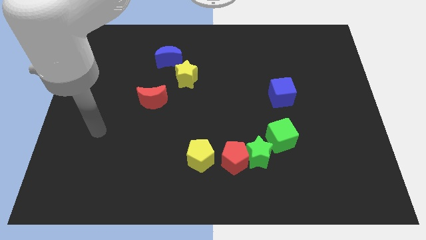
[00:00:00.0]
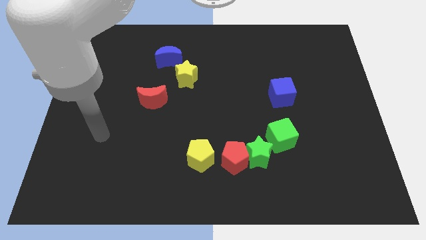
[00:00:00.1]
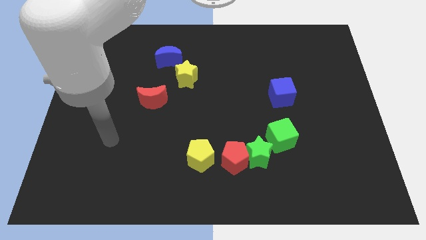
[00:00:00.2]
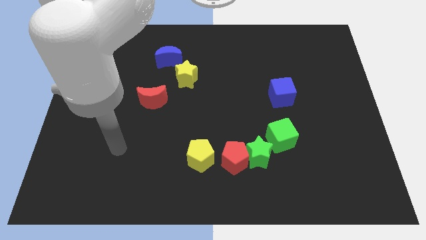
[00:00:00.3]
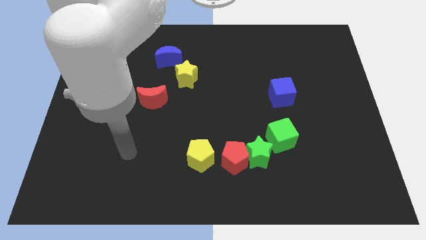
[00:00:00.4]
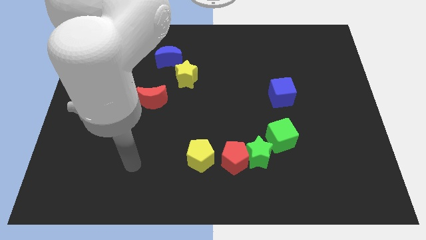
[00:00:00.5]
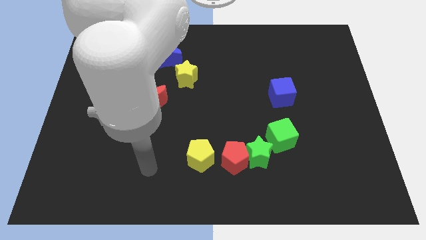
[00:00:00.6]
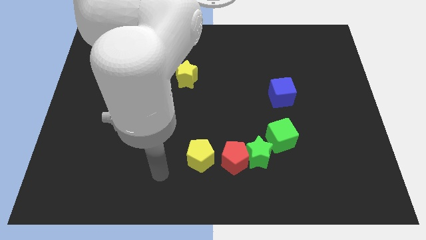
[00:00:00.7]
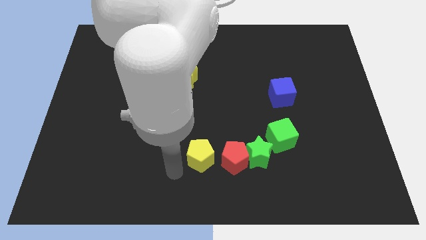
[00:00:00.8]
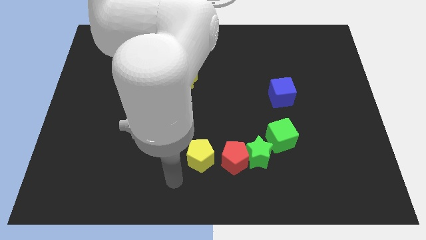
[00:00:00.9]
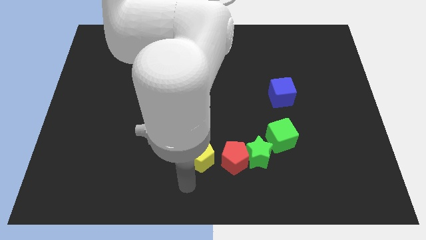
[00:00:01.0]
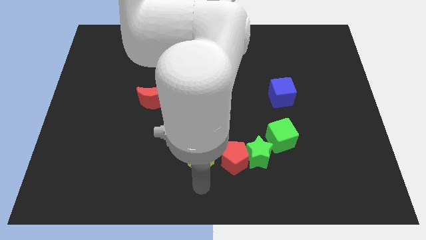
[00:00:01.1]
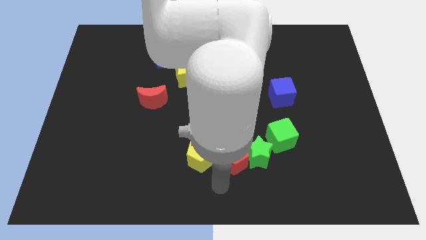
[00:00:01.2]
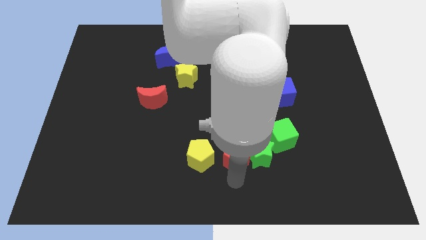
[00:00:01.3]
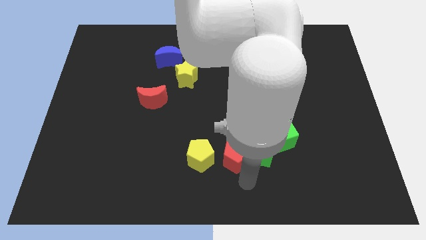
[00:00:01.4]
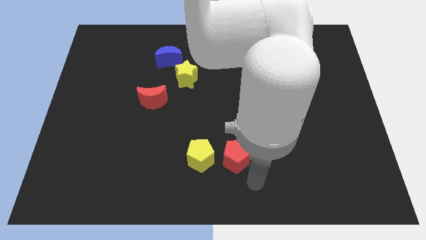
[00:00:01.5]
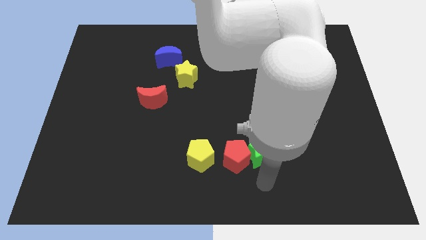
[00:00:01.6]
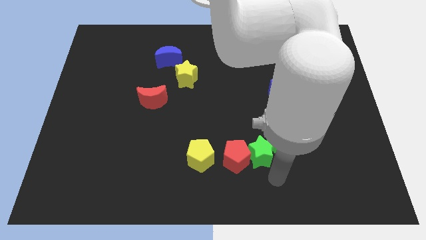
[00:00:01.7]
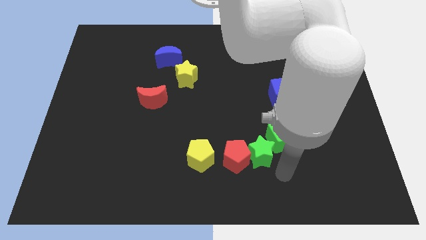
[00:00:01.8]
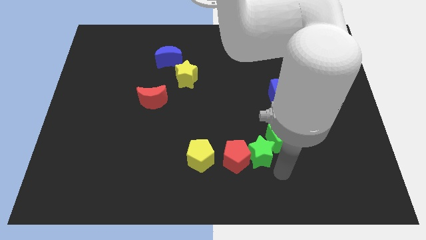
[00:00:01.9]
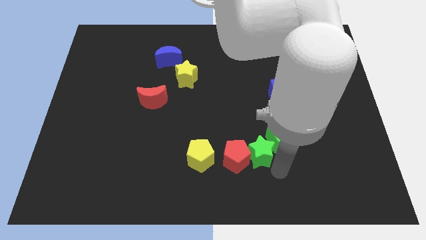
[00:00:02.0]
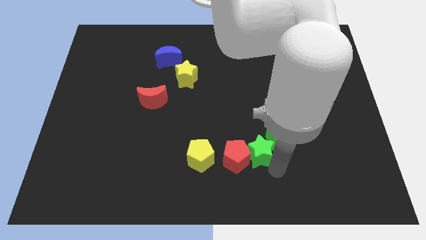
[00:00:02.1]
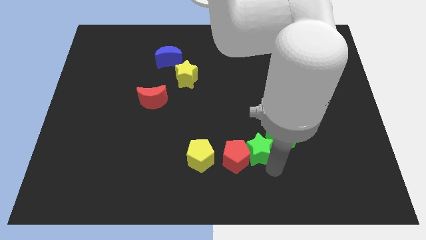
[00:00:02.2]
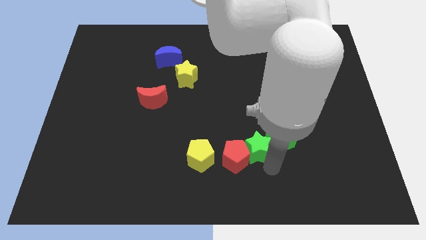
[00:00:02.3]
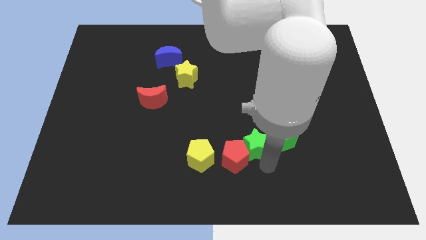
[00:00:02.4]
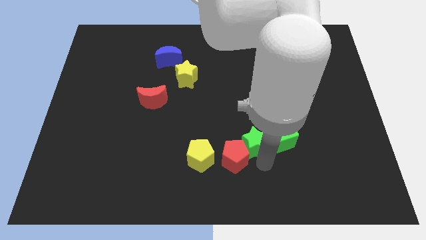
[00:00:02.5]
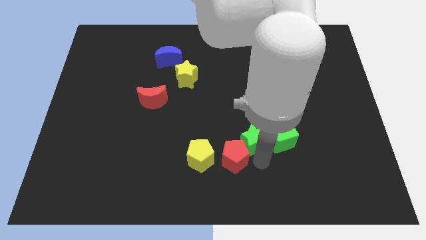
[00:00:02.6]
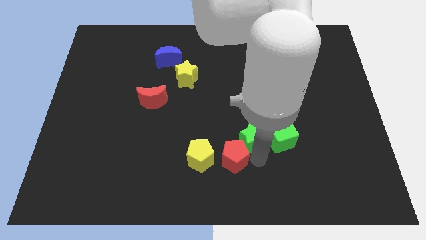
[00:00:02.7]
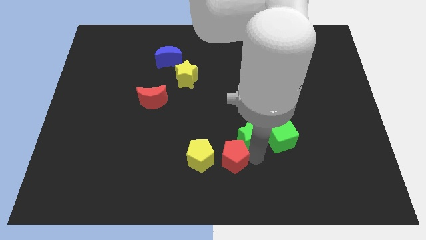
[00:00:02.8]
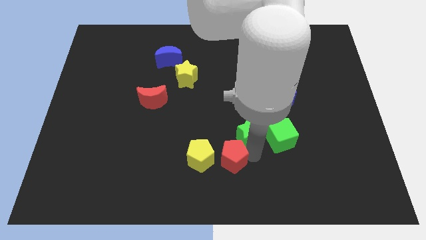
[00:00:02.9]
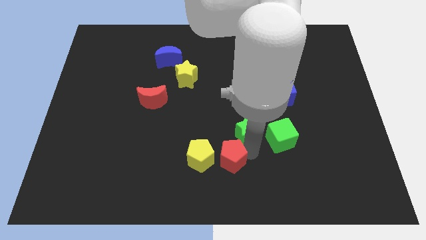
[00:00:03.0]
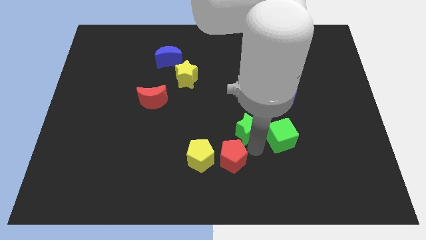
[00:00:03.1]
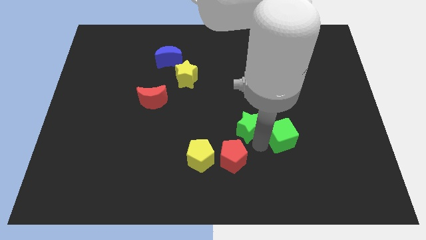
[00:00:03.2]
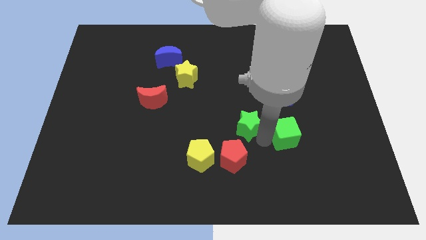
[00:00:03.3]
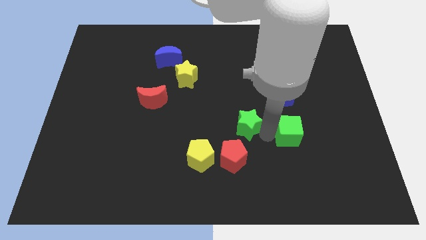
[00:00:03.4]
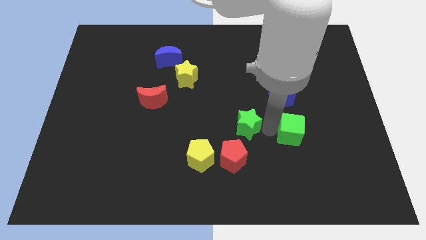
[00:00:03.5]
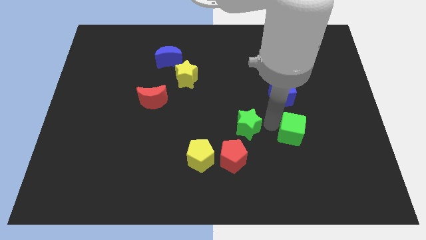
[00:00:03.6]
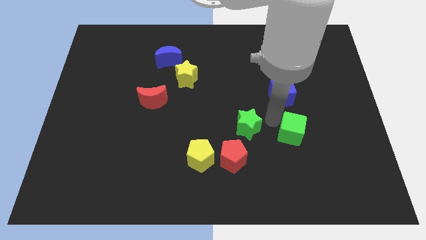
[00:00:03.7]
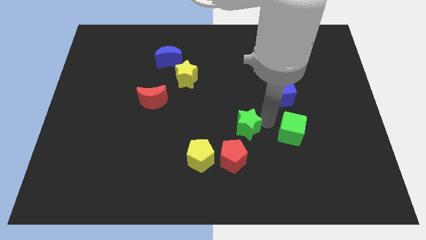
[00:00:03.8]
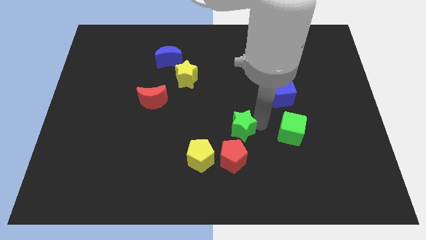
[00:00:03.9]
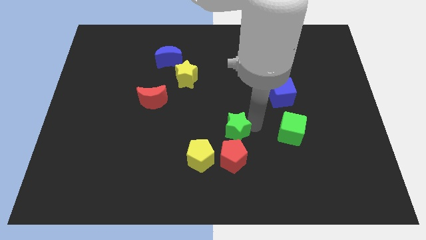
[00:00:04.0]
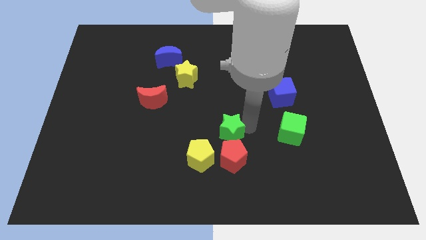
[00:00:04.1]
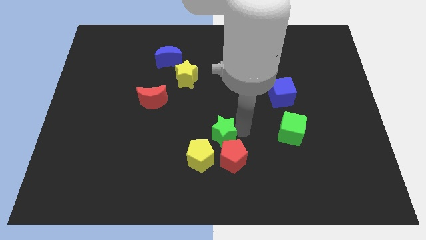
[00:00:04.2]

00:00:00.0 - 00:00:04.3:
put the green star to the top side of the yellow pentagon

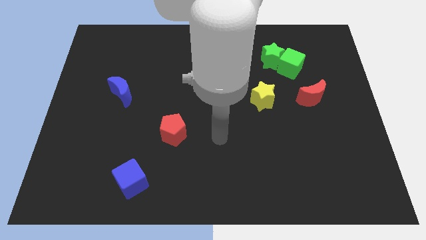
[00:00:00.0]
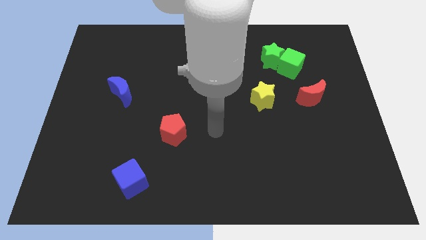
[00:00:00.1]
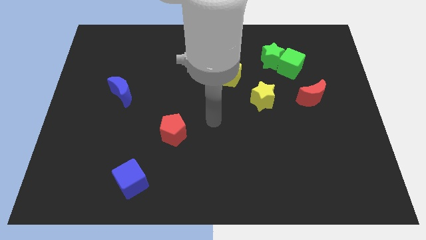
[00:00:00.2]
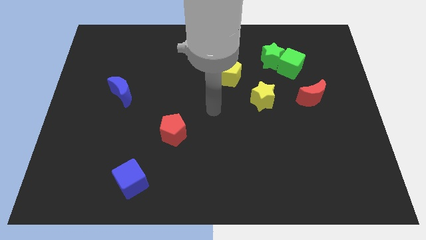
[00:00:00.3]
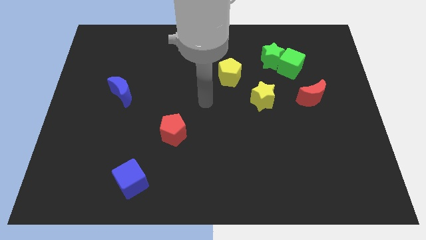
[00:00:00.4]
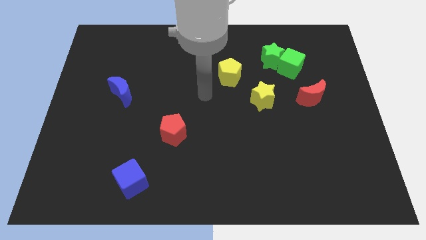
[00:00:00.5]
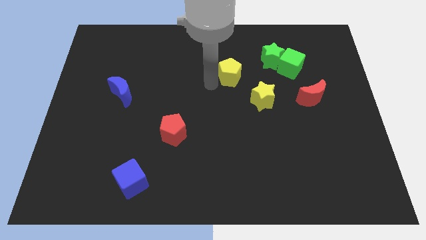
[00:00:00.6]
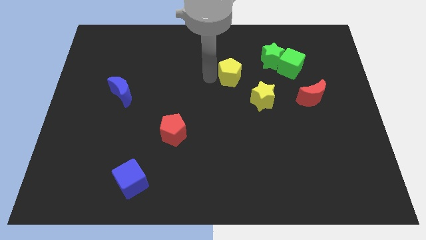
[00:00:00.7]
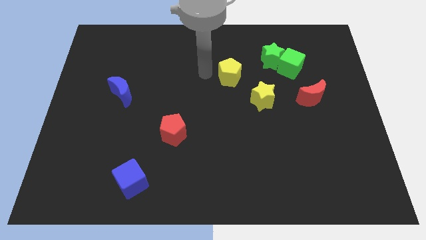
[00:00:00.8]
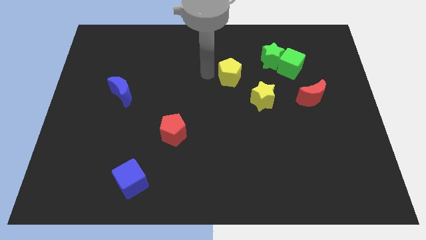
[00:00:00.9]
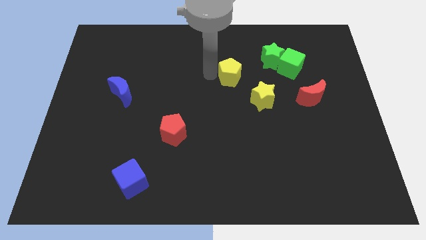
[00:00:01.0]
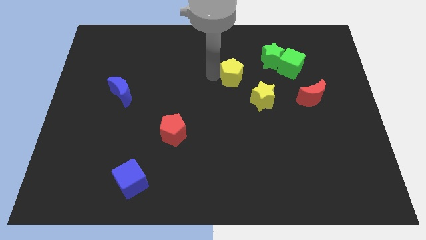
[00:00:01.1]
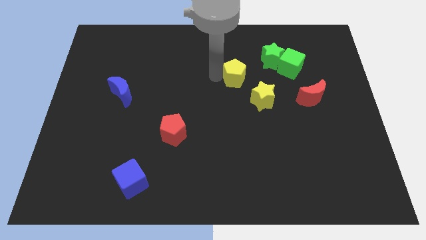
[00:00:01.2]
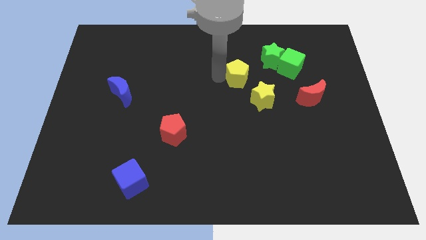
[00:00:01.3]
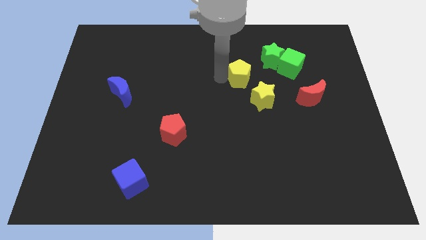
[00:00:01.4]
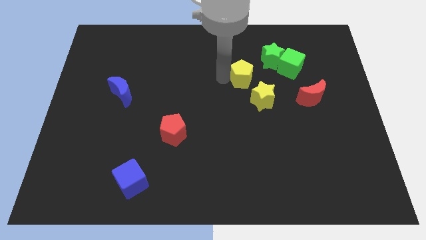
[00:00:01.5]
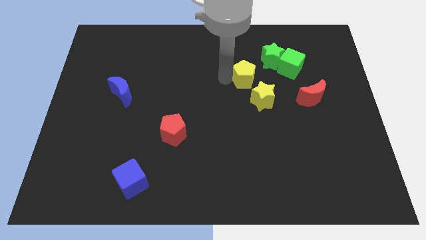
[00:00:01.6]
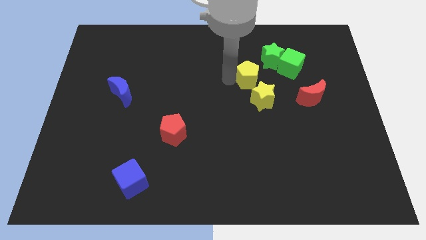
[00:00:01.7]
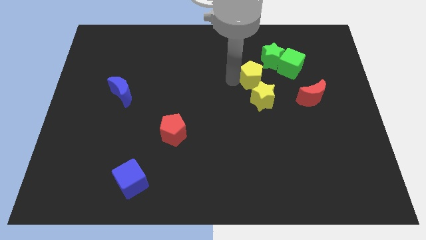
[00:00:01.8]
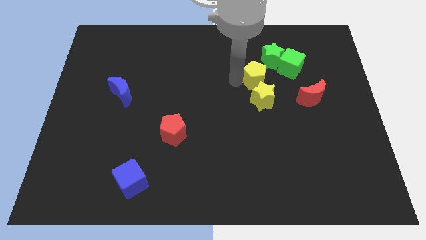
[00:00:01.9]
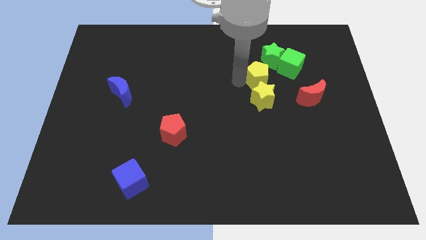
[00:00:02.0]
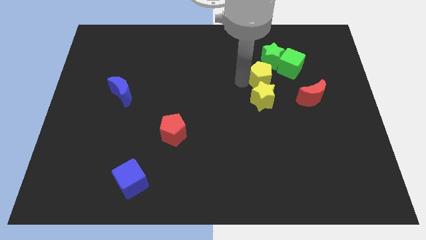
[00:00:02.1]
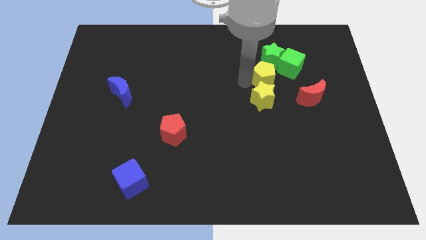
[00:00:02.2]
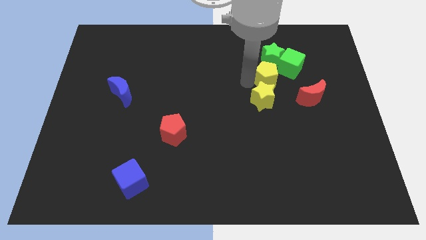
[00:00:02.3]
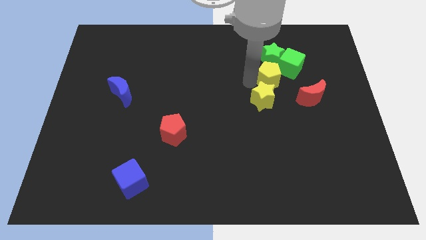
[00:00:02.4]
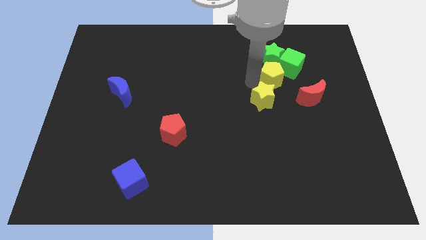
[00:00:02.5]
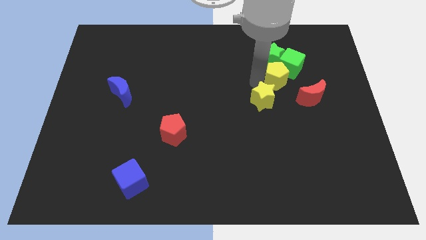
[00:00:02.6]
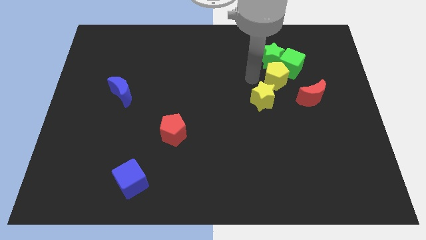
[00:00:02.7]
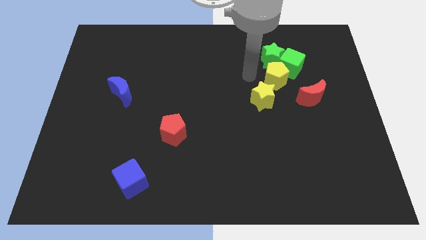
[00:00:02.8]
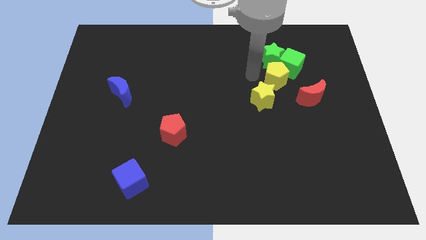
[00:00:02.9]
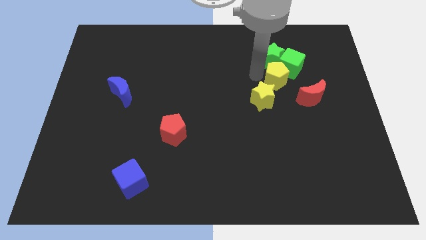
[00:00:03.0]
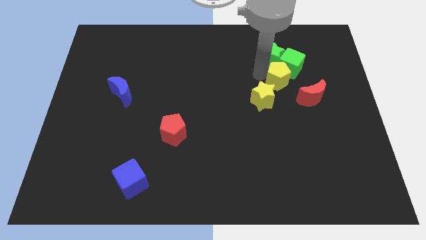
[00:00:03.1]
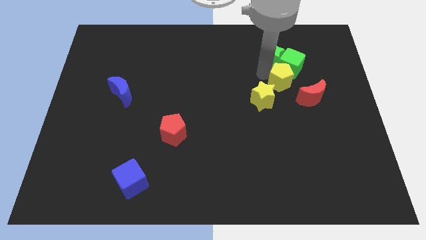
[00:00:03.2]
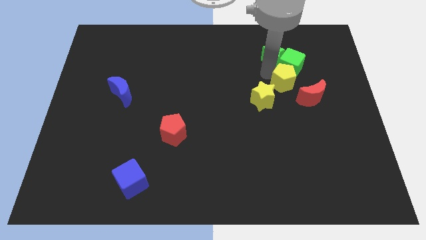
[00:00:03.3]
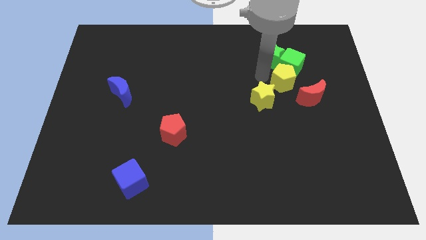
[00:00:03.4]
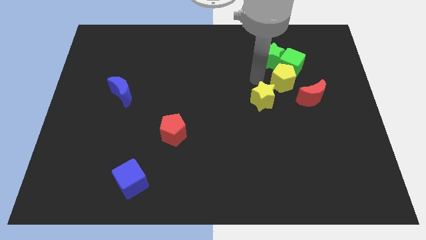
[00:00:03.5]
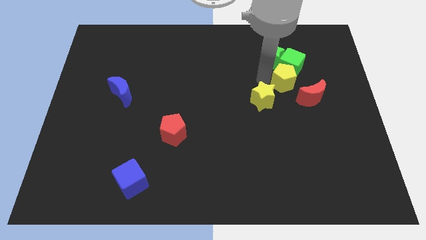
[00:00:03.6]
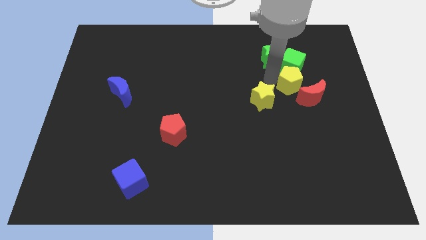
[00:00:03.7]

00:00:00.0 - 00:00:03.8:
move the yellow pentagon diagonally down and to the right of the green cube
